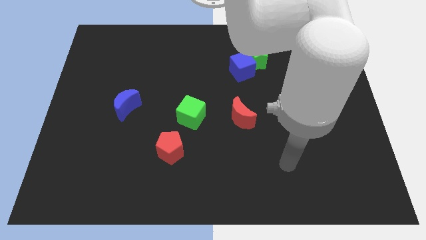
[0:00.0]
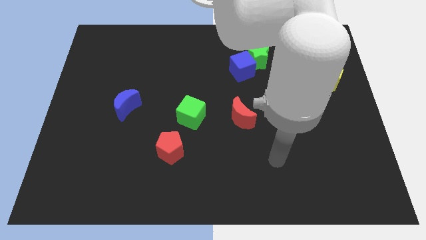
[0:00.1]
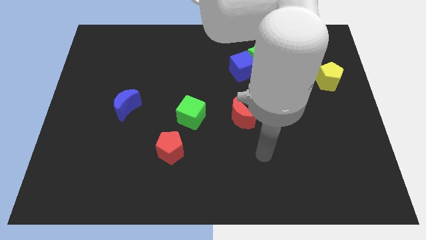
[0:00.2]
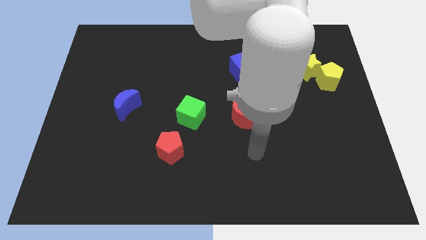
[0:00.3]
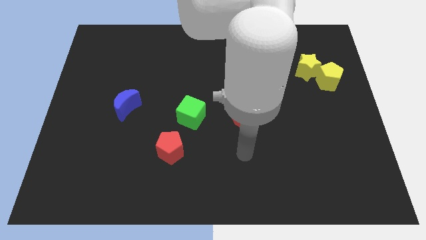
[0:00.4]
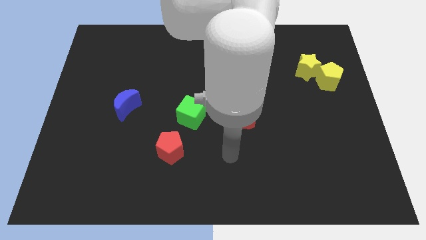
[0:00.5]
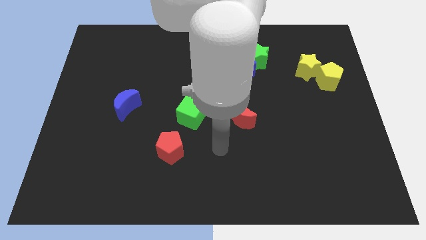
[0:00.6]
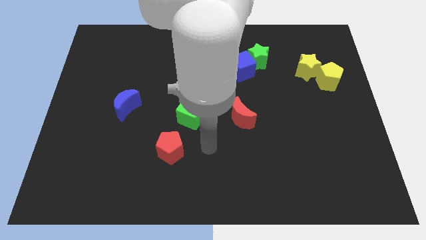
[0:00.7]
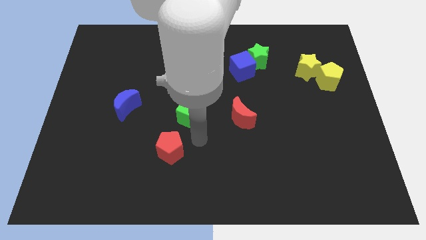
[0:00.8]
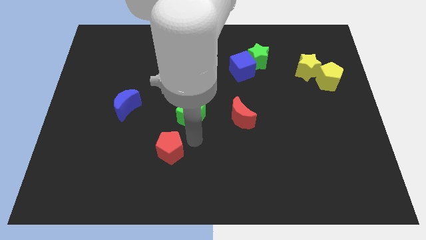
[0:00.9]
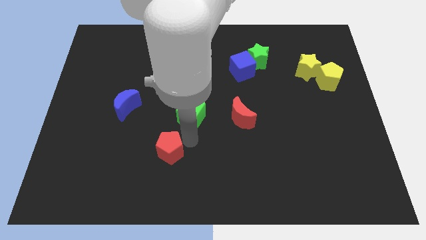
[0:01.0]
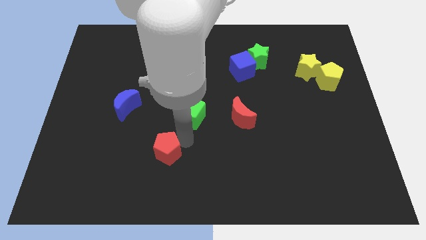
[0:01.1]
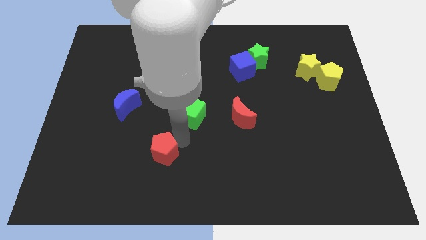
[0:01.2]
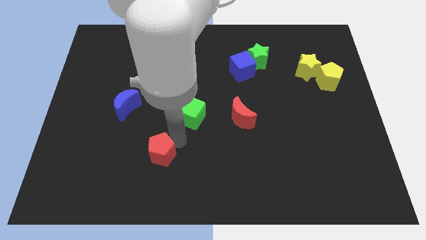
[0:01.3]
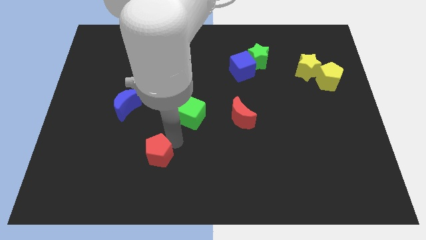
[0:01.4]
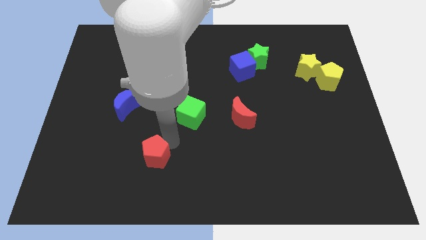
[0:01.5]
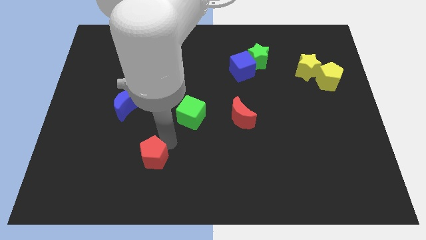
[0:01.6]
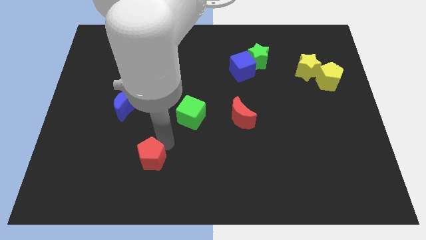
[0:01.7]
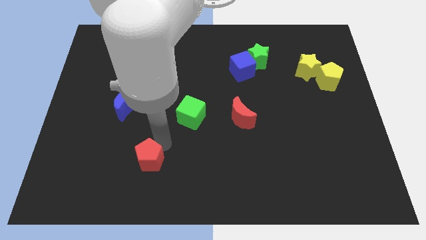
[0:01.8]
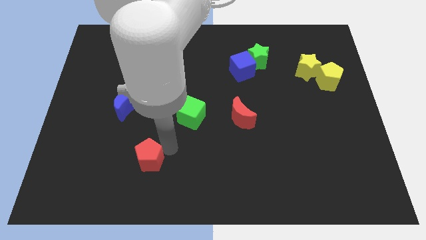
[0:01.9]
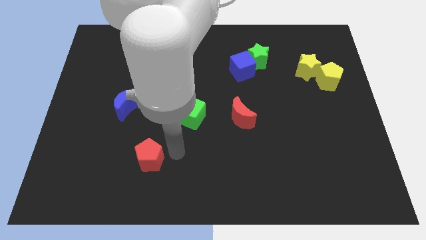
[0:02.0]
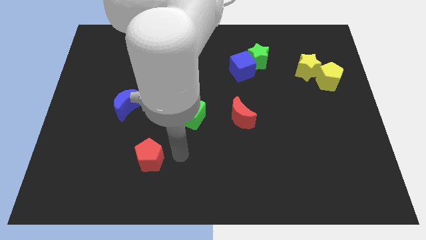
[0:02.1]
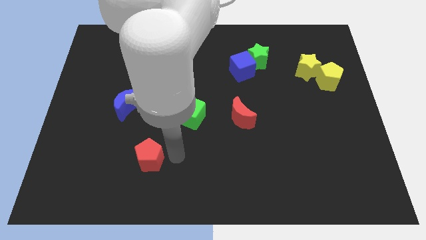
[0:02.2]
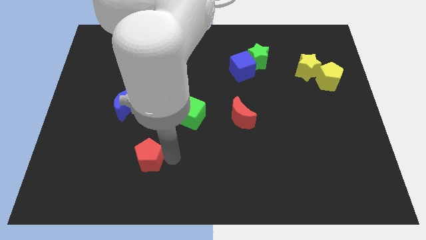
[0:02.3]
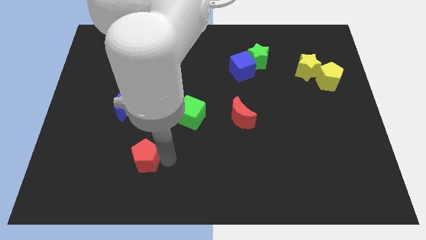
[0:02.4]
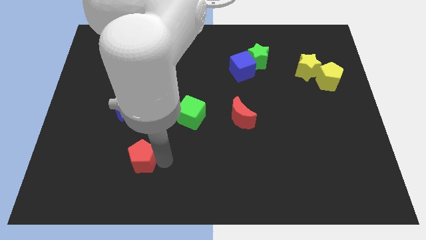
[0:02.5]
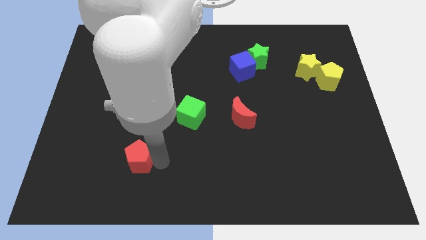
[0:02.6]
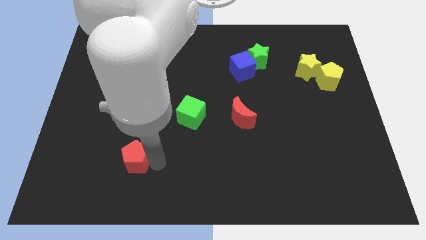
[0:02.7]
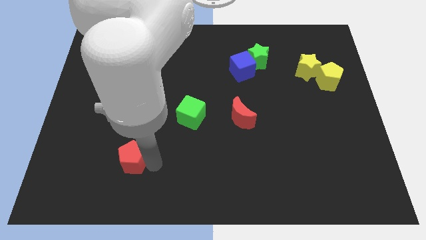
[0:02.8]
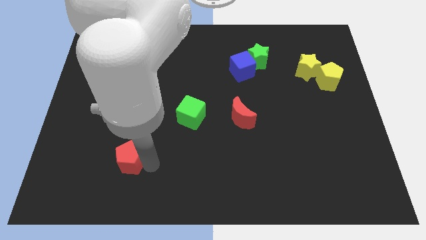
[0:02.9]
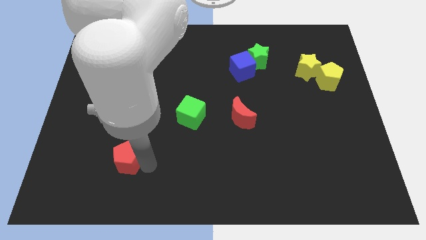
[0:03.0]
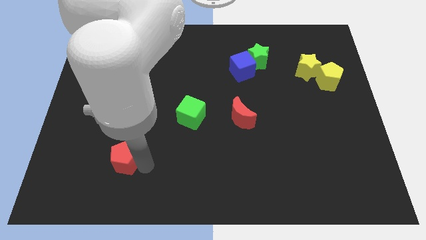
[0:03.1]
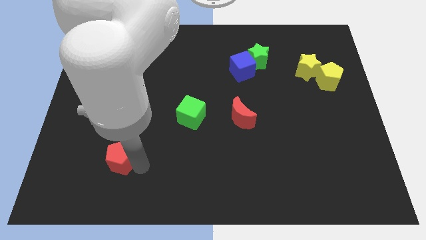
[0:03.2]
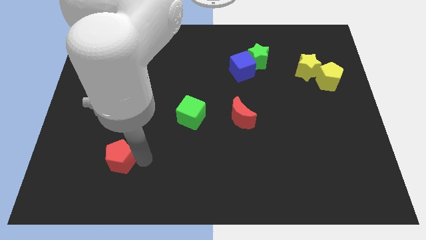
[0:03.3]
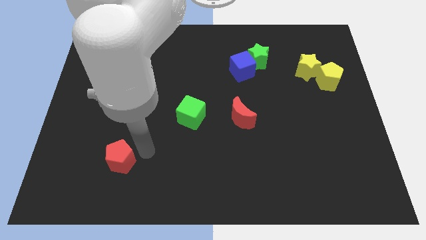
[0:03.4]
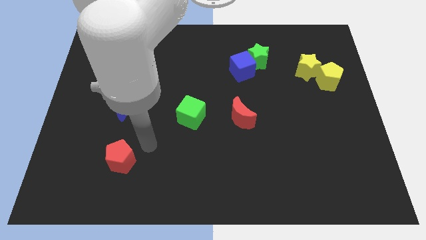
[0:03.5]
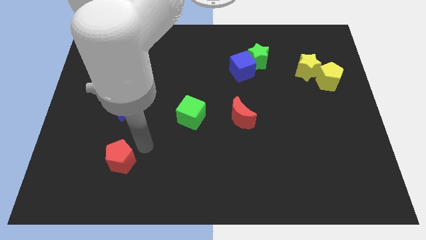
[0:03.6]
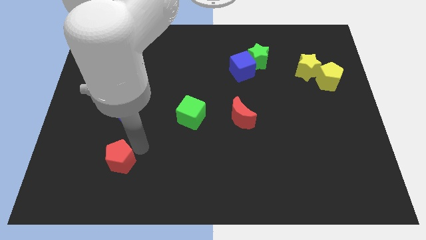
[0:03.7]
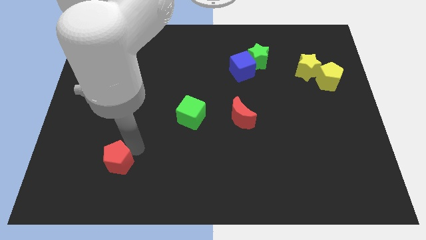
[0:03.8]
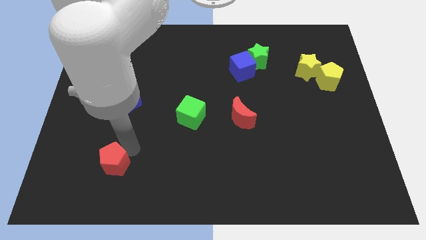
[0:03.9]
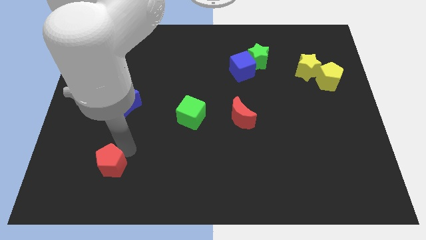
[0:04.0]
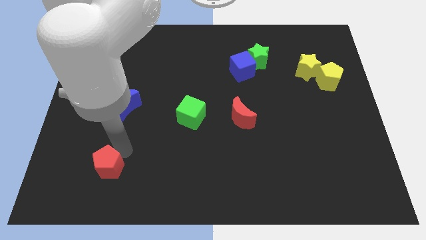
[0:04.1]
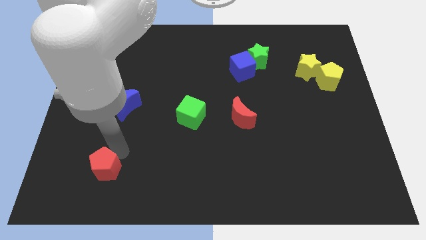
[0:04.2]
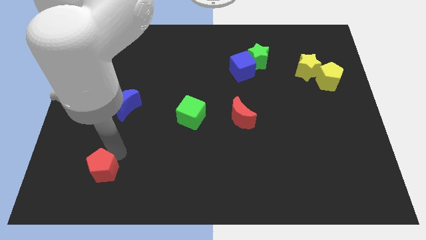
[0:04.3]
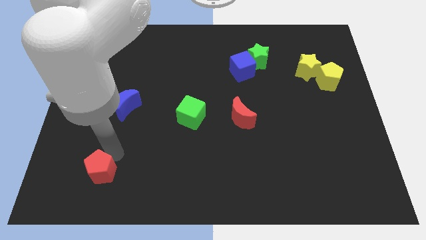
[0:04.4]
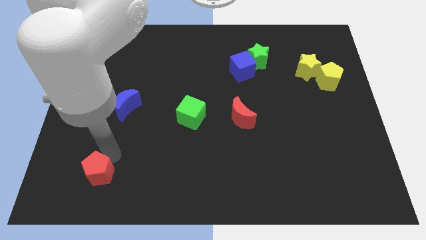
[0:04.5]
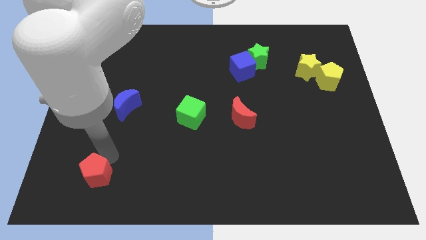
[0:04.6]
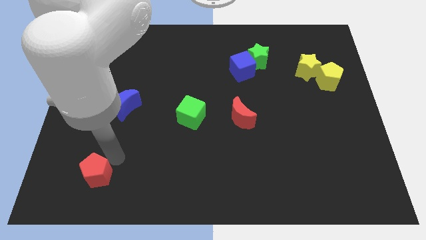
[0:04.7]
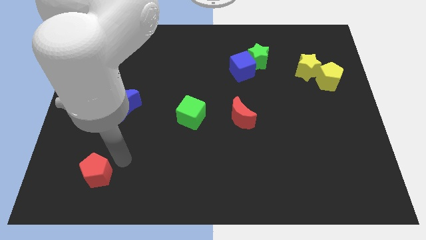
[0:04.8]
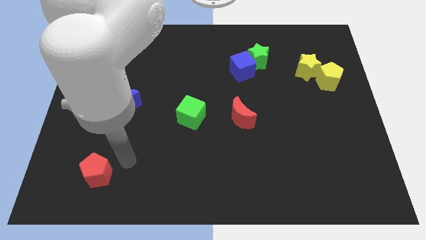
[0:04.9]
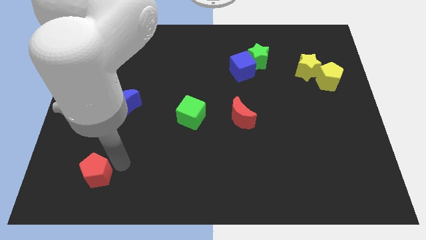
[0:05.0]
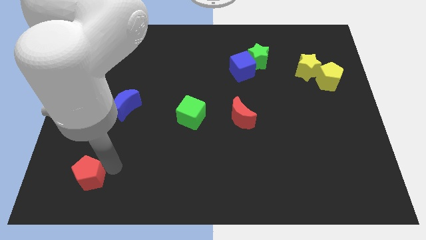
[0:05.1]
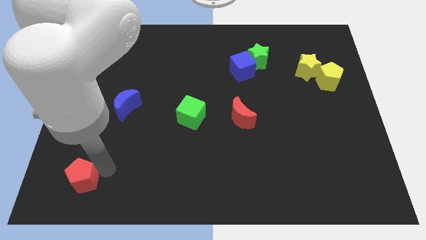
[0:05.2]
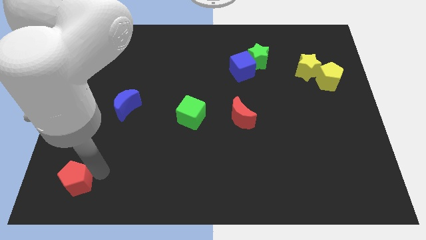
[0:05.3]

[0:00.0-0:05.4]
put the red pentagon to the bottom left

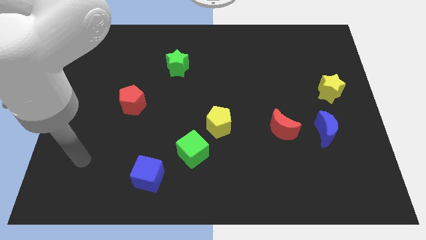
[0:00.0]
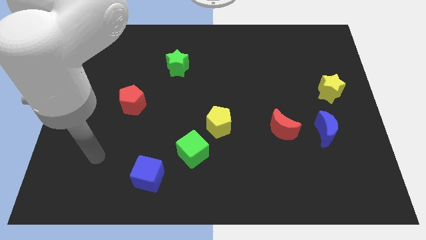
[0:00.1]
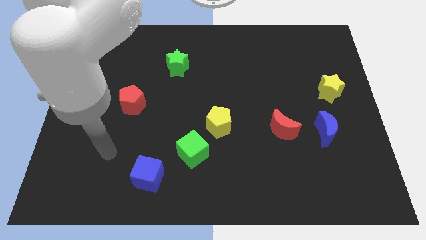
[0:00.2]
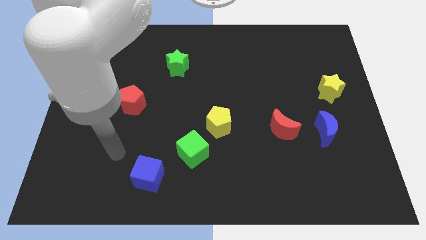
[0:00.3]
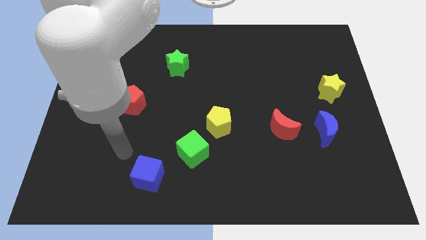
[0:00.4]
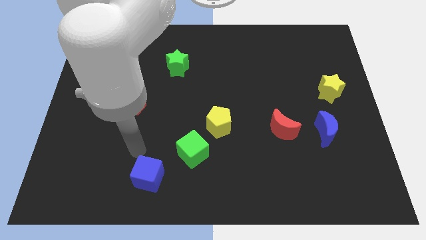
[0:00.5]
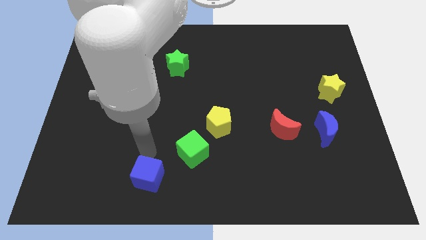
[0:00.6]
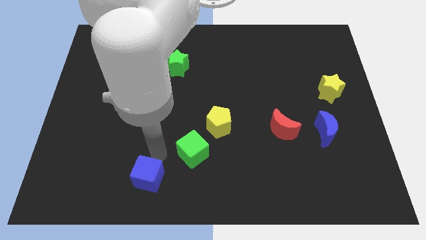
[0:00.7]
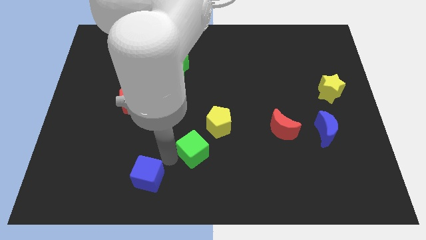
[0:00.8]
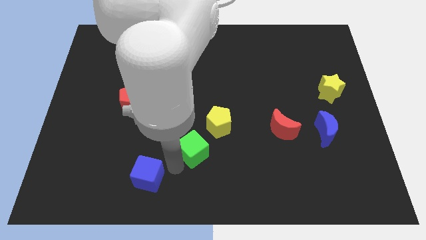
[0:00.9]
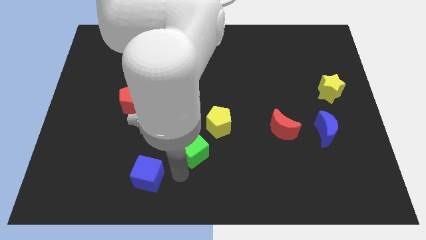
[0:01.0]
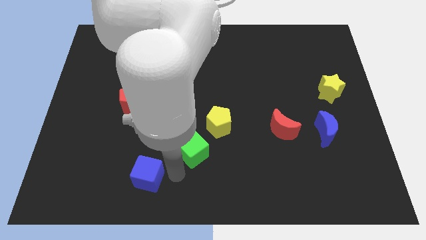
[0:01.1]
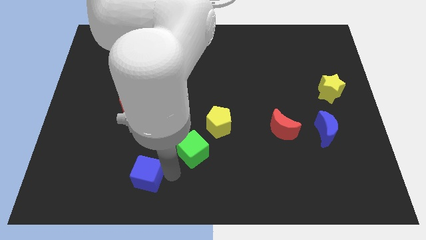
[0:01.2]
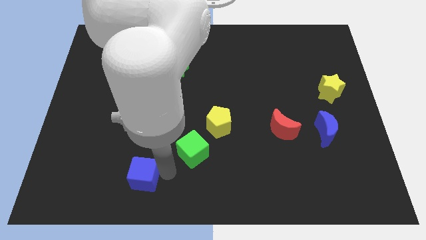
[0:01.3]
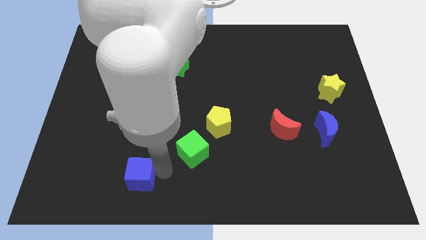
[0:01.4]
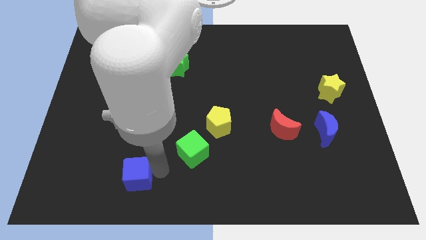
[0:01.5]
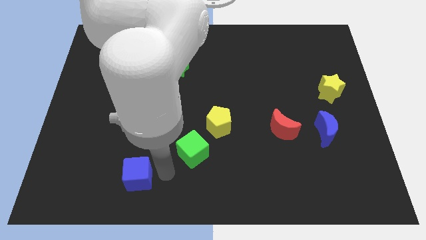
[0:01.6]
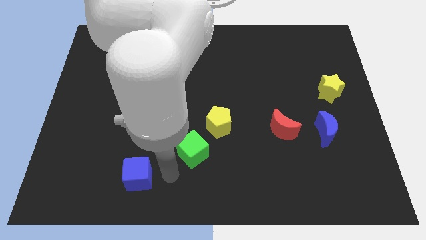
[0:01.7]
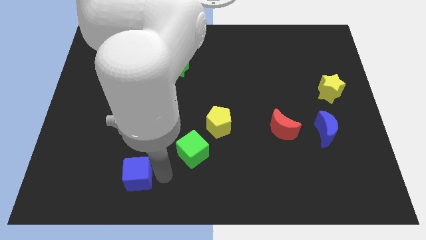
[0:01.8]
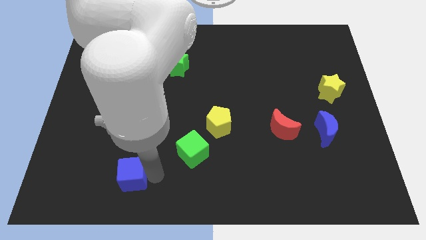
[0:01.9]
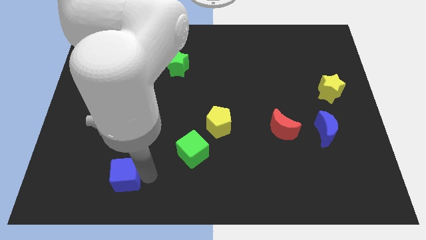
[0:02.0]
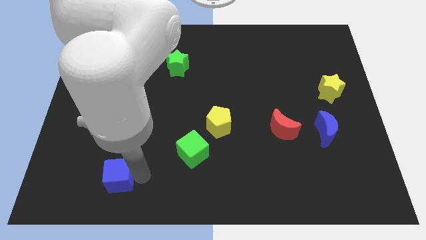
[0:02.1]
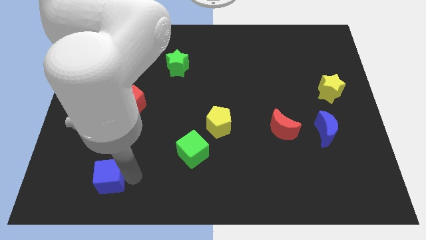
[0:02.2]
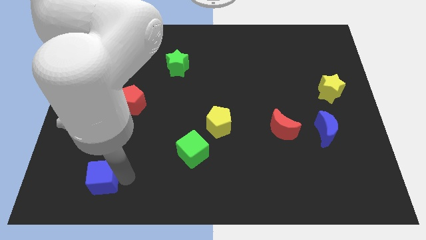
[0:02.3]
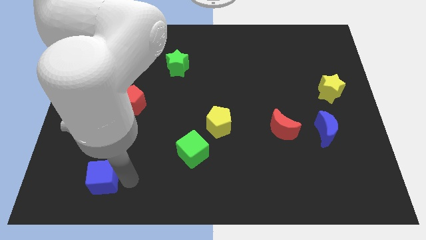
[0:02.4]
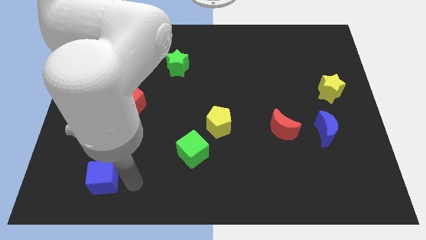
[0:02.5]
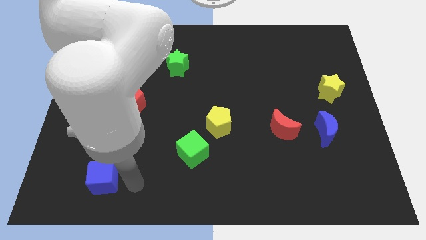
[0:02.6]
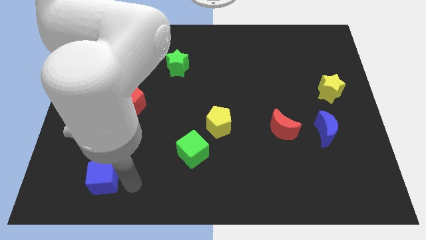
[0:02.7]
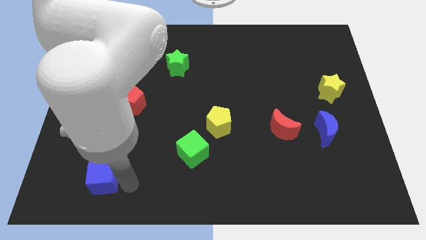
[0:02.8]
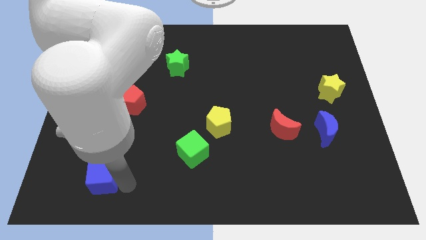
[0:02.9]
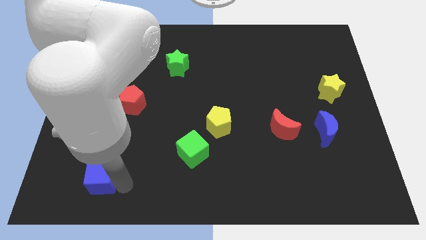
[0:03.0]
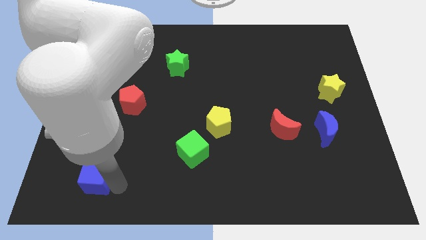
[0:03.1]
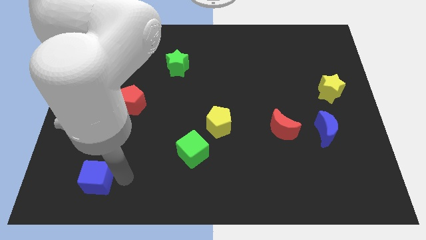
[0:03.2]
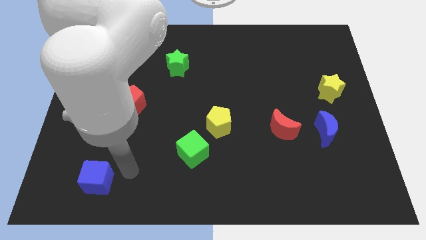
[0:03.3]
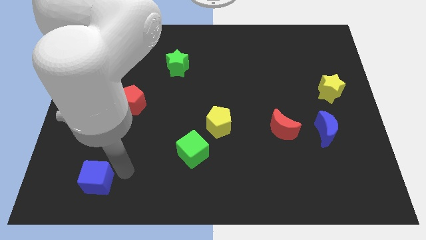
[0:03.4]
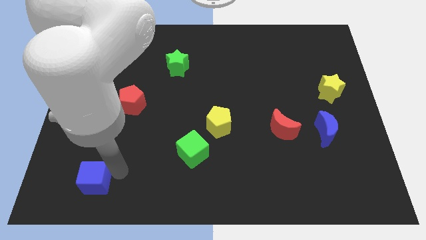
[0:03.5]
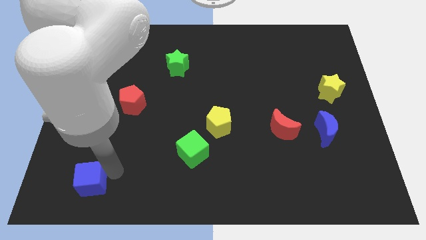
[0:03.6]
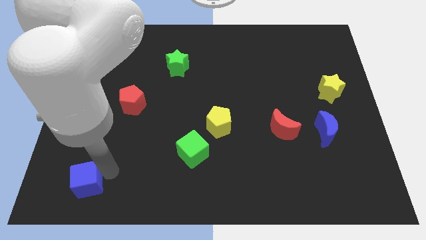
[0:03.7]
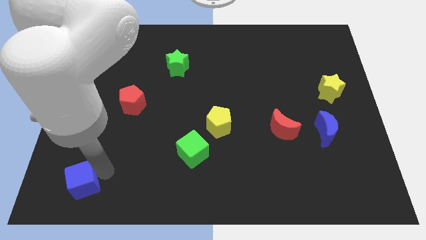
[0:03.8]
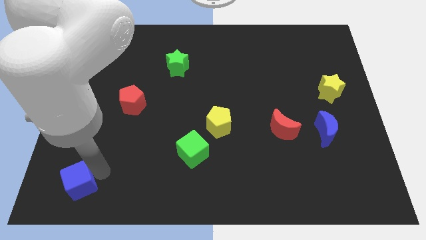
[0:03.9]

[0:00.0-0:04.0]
move the blue cube to the bottom left
